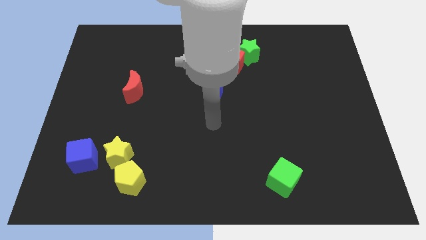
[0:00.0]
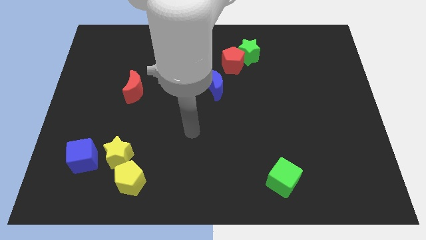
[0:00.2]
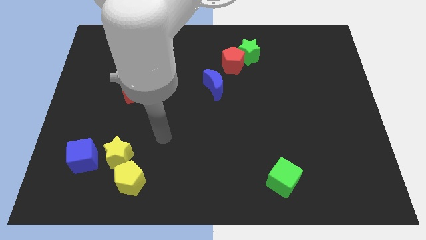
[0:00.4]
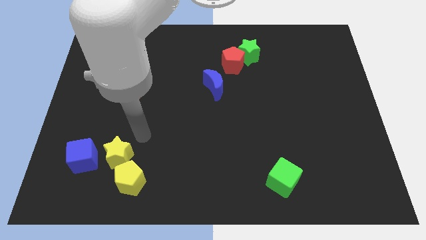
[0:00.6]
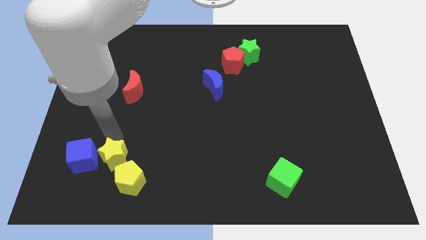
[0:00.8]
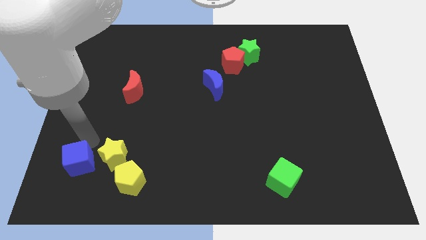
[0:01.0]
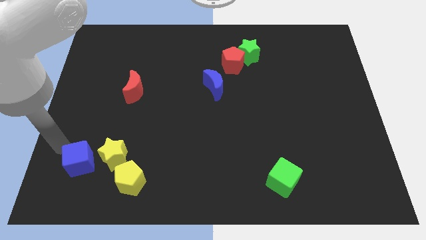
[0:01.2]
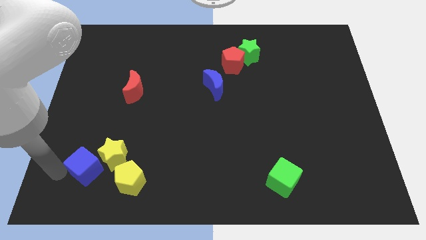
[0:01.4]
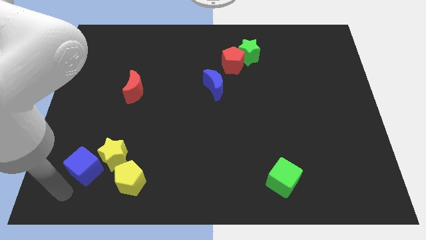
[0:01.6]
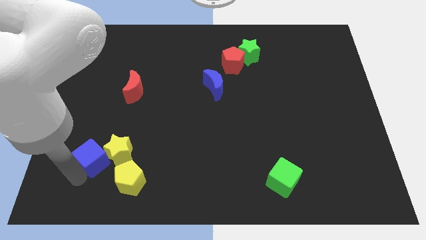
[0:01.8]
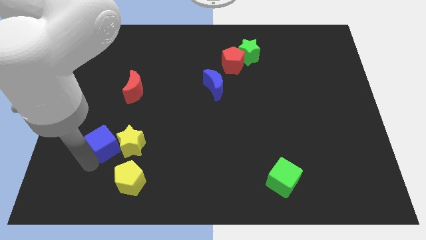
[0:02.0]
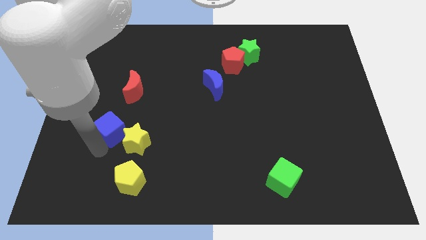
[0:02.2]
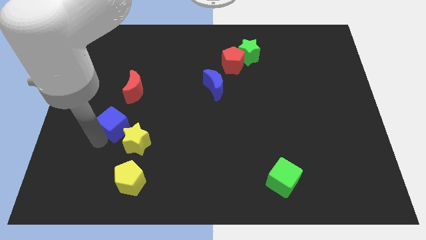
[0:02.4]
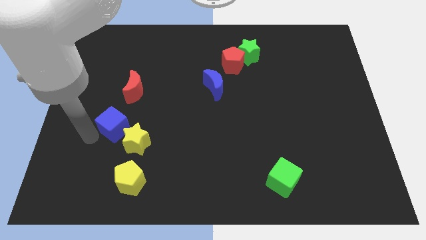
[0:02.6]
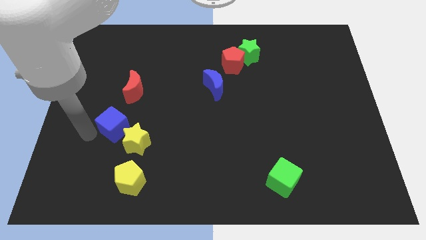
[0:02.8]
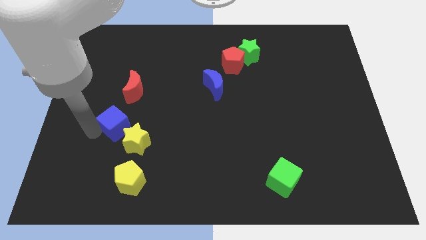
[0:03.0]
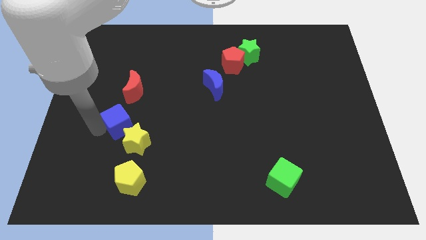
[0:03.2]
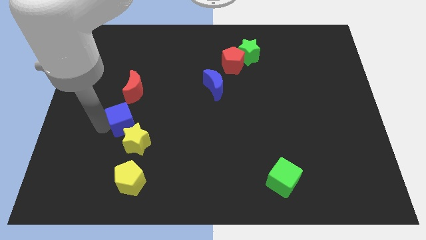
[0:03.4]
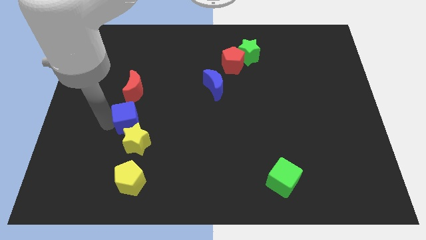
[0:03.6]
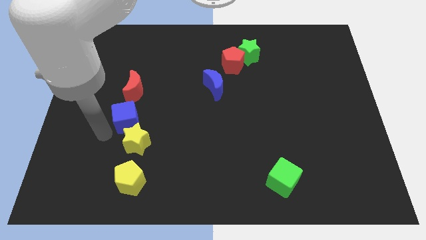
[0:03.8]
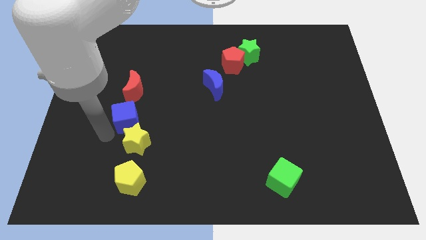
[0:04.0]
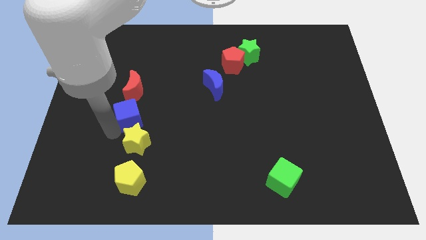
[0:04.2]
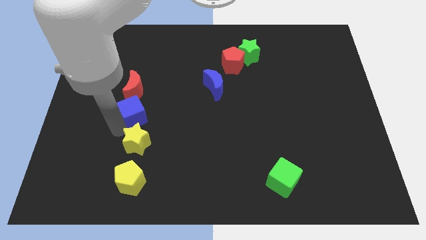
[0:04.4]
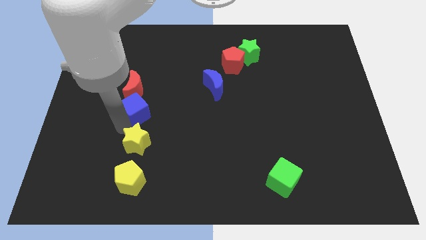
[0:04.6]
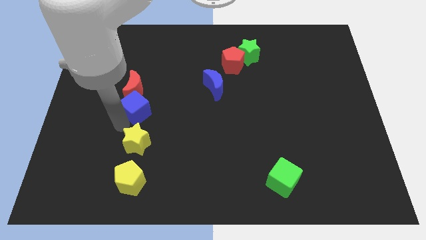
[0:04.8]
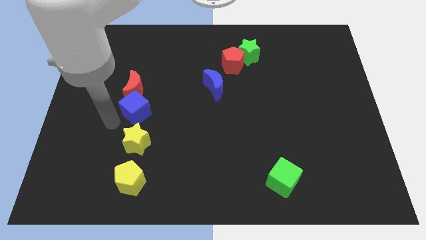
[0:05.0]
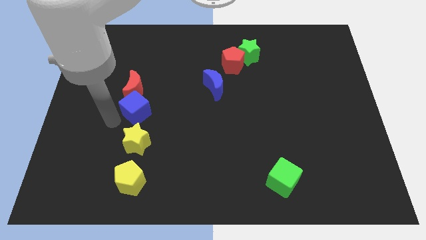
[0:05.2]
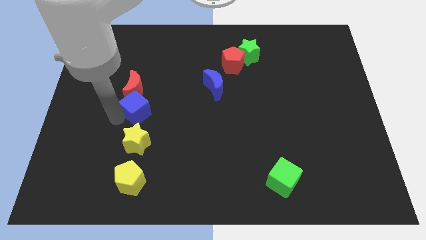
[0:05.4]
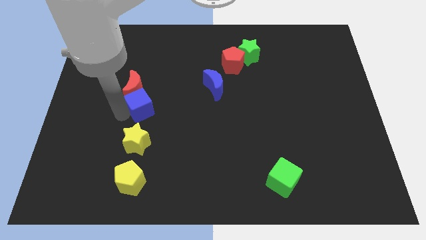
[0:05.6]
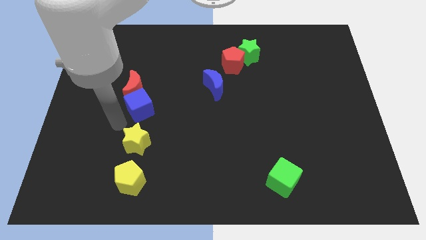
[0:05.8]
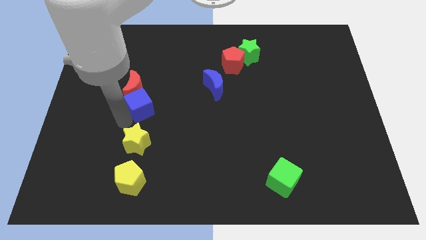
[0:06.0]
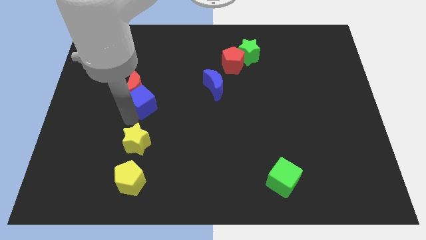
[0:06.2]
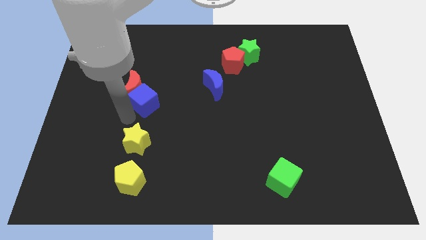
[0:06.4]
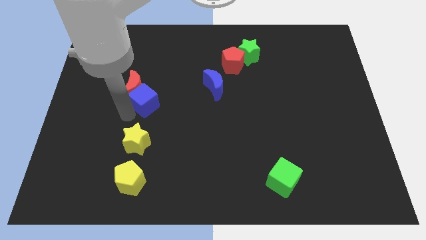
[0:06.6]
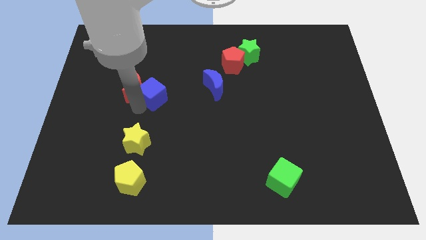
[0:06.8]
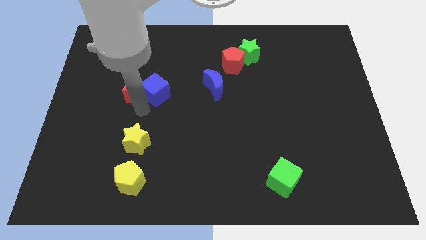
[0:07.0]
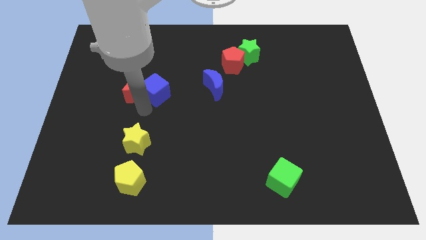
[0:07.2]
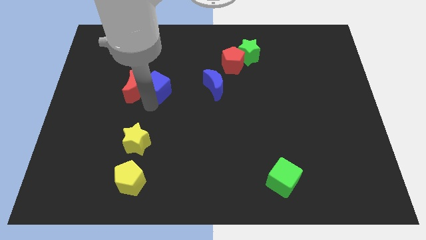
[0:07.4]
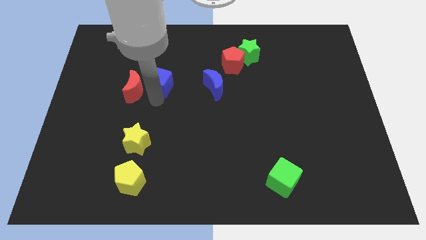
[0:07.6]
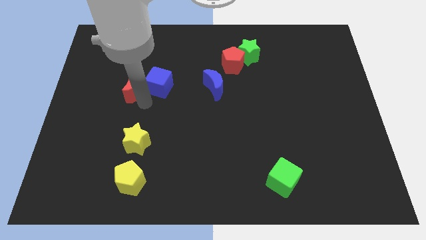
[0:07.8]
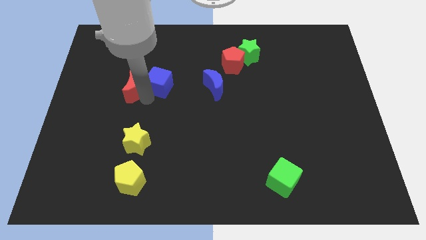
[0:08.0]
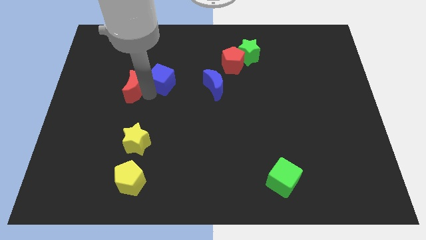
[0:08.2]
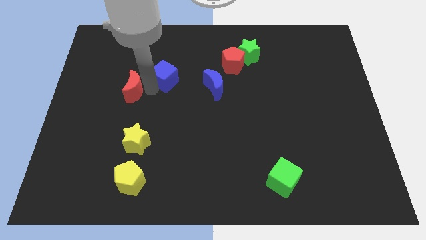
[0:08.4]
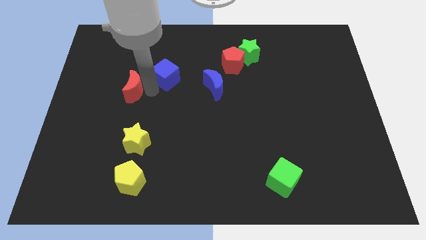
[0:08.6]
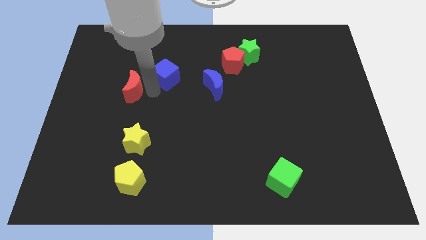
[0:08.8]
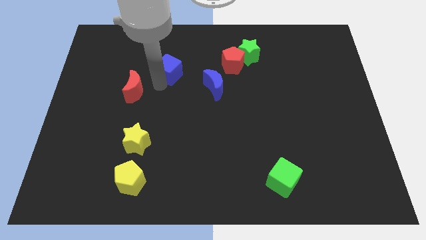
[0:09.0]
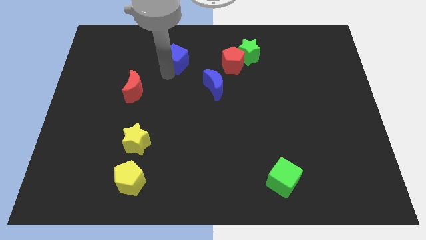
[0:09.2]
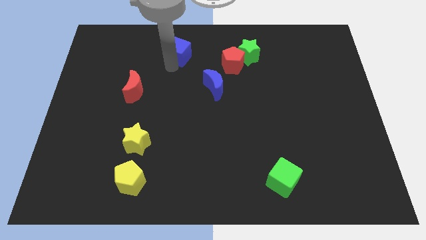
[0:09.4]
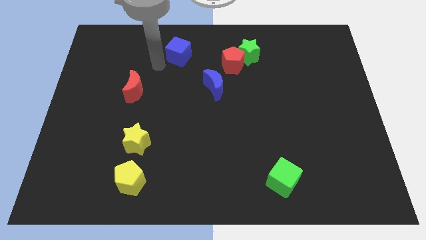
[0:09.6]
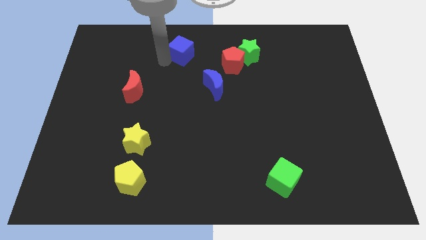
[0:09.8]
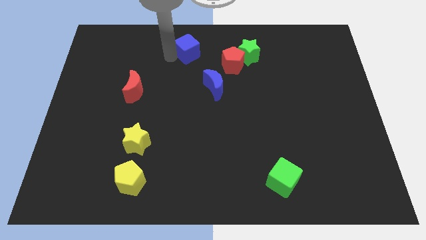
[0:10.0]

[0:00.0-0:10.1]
push the blue cube to the towards your base

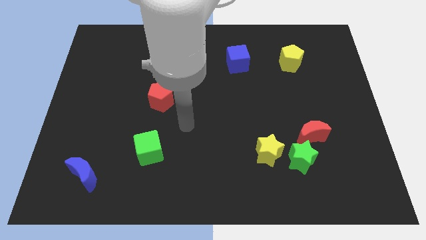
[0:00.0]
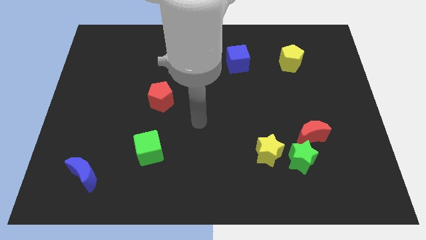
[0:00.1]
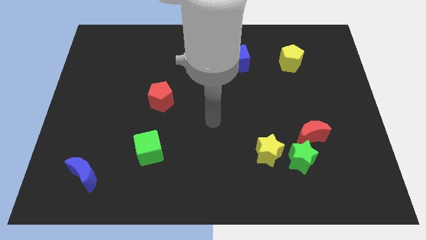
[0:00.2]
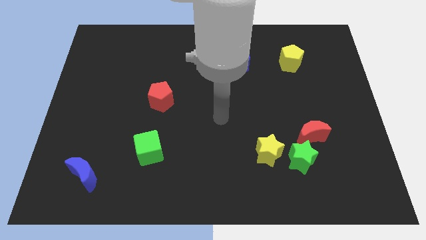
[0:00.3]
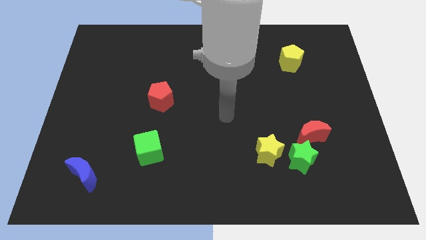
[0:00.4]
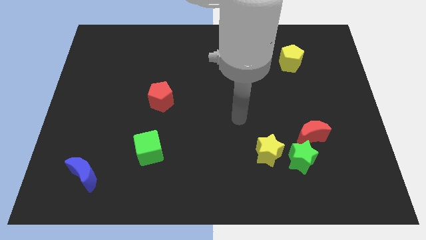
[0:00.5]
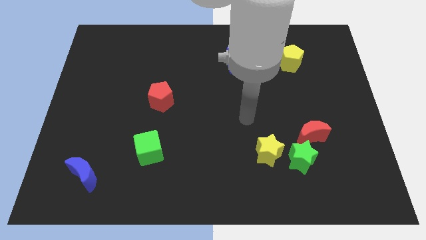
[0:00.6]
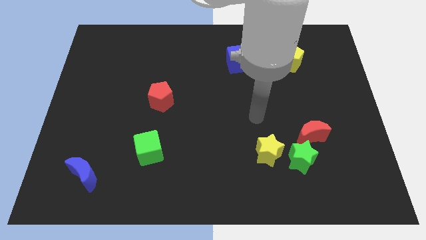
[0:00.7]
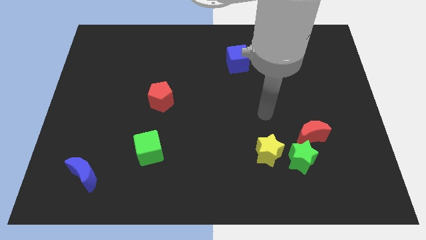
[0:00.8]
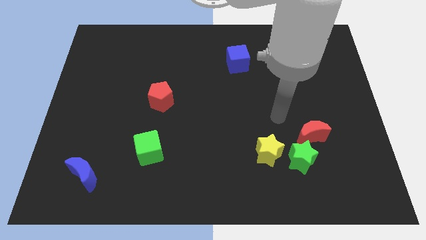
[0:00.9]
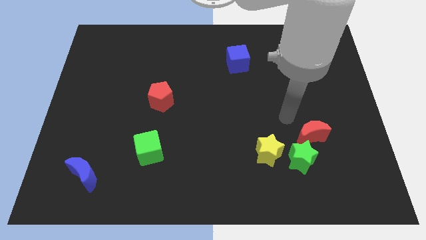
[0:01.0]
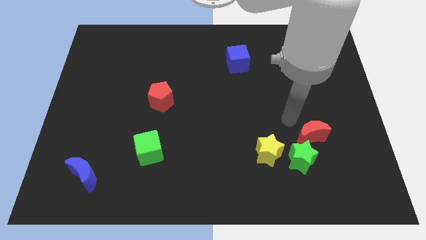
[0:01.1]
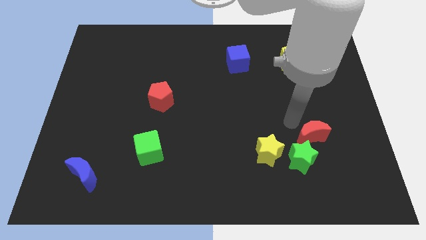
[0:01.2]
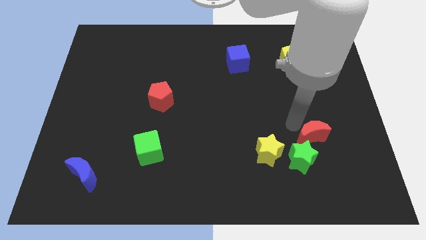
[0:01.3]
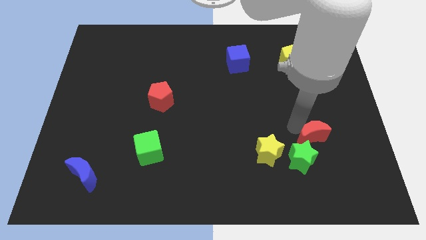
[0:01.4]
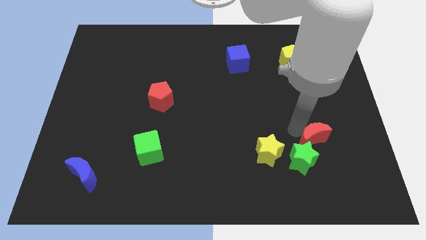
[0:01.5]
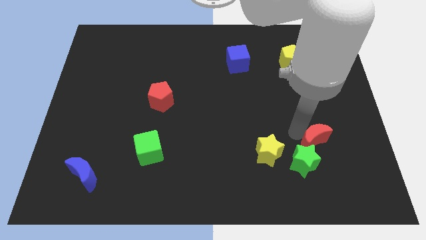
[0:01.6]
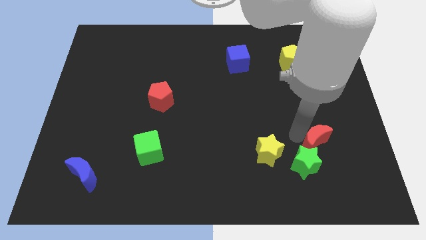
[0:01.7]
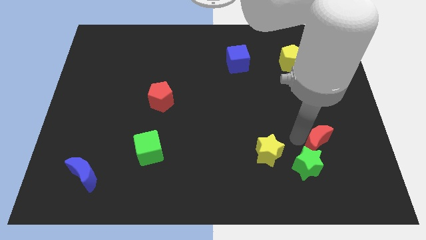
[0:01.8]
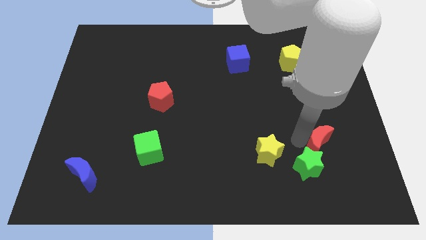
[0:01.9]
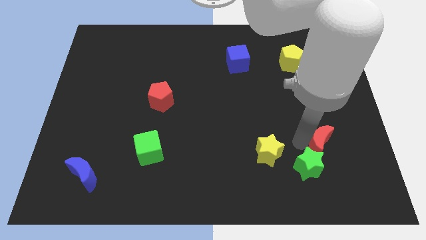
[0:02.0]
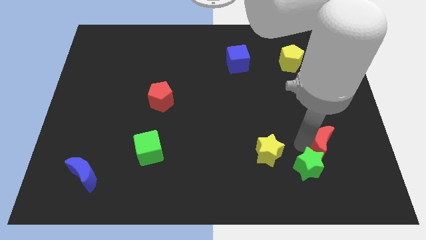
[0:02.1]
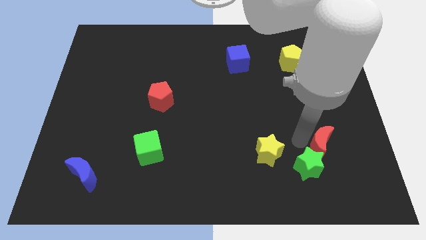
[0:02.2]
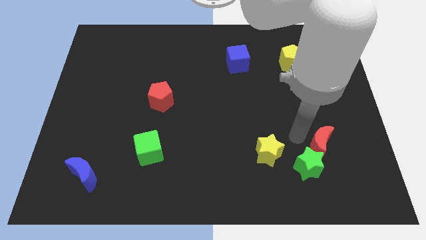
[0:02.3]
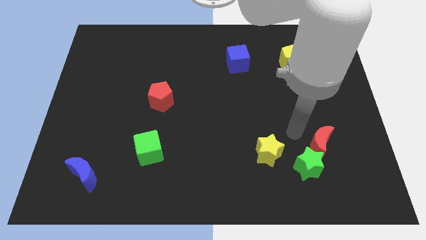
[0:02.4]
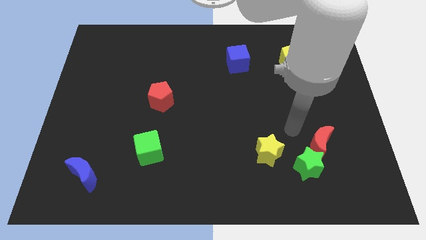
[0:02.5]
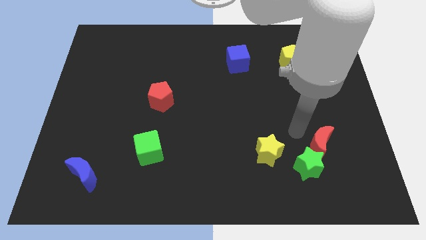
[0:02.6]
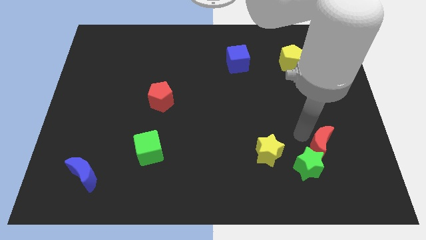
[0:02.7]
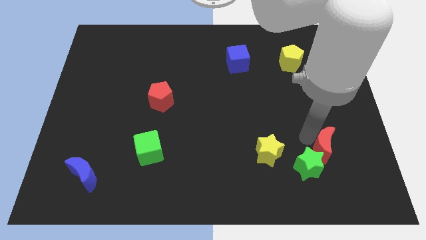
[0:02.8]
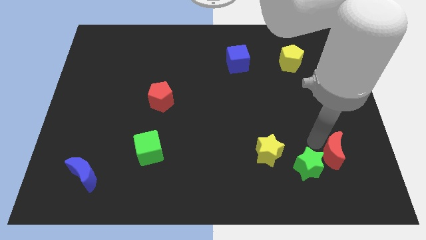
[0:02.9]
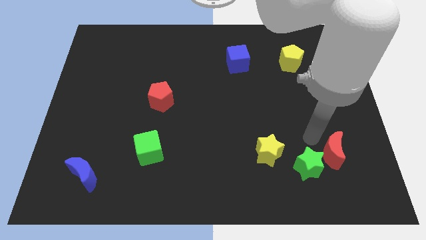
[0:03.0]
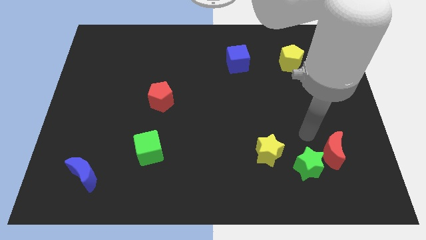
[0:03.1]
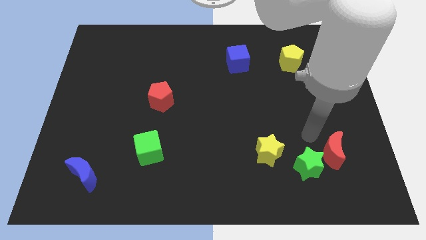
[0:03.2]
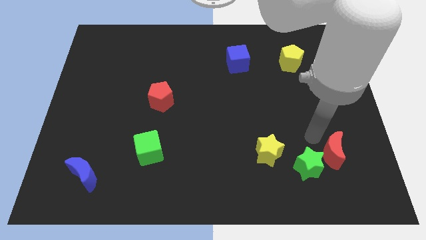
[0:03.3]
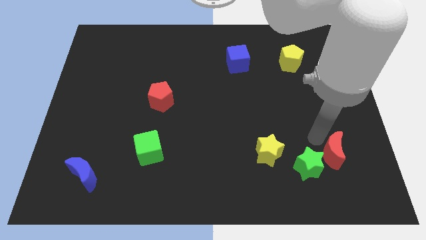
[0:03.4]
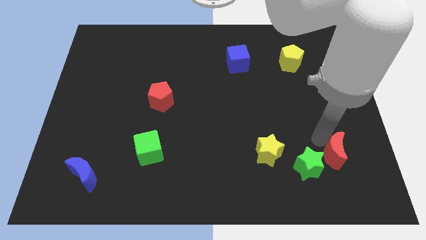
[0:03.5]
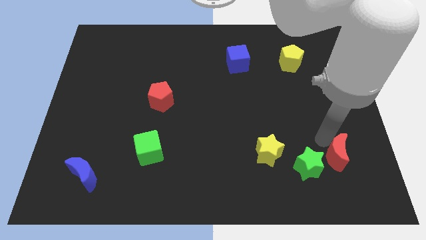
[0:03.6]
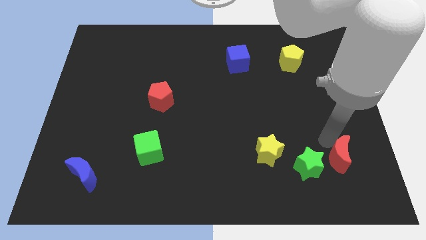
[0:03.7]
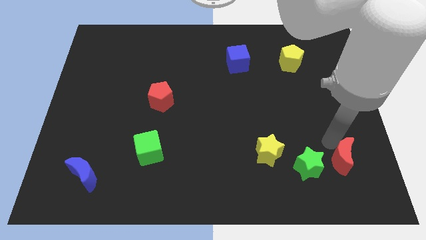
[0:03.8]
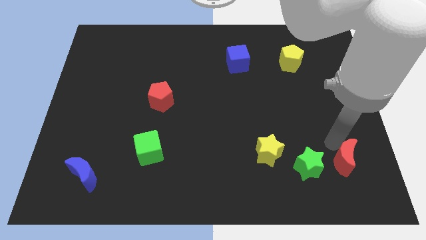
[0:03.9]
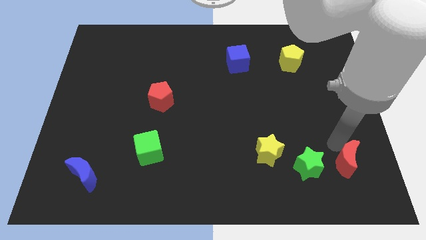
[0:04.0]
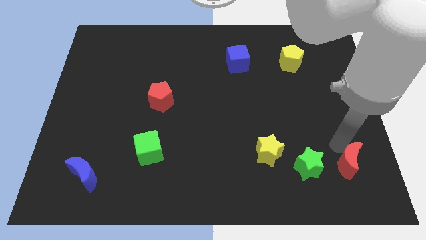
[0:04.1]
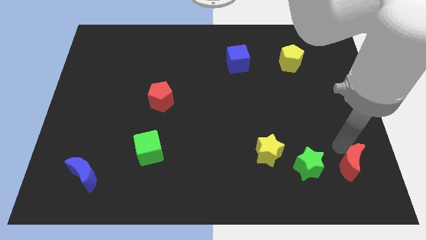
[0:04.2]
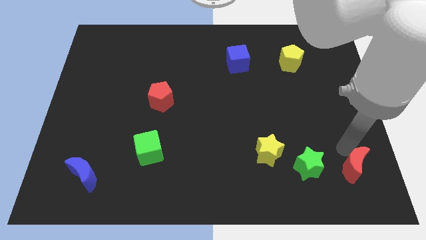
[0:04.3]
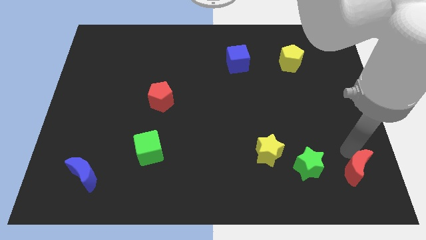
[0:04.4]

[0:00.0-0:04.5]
push the red moon to the lower right corner
